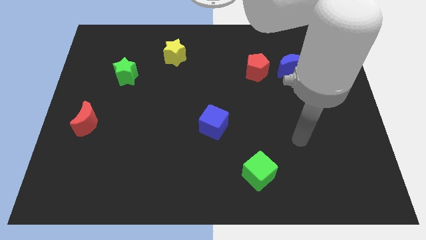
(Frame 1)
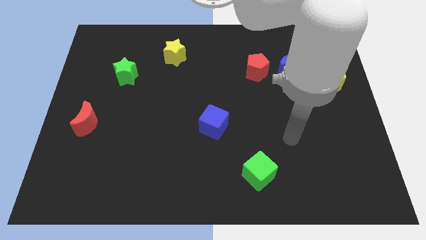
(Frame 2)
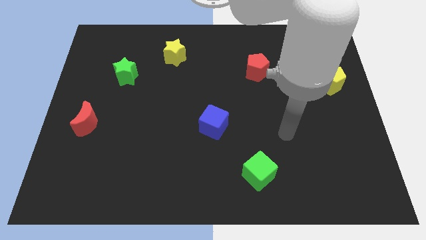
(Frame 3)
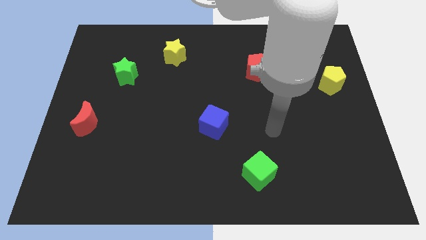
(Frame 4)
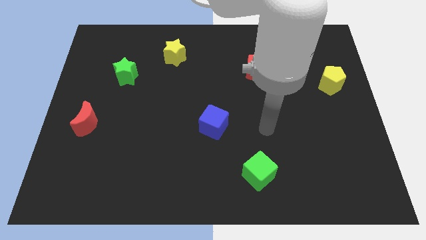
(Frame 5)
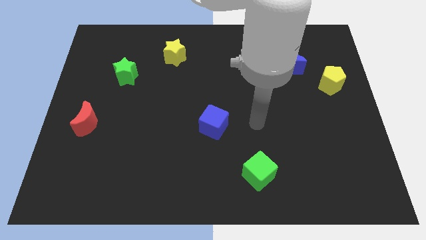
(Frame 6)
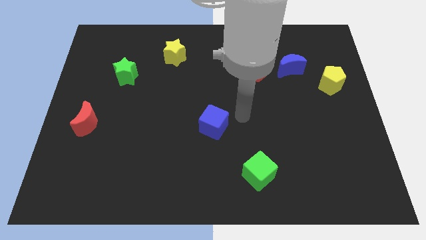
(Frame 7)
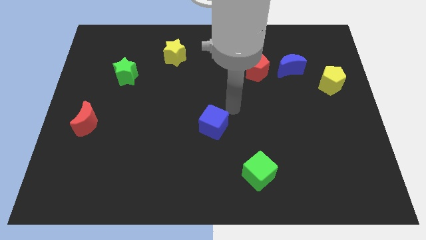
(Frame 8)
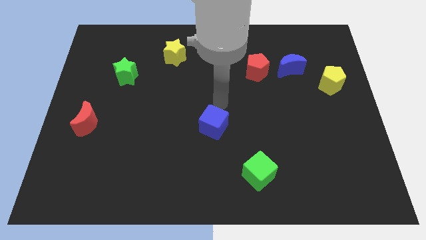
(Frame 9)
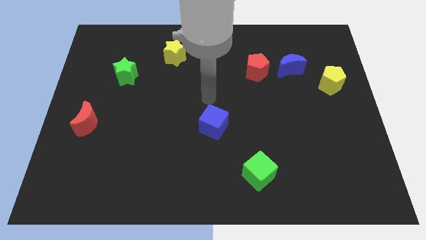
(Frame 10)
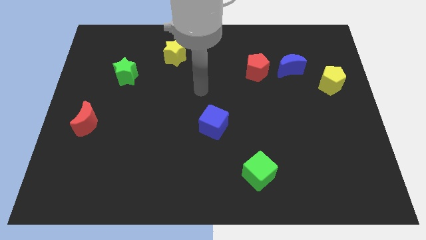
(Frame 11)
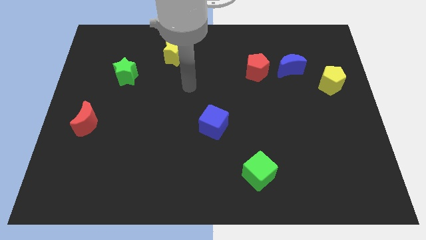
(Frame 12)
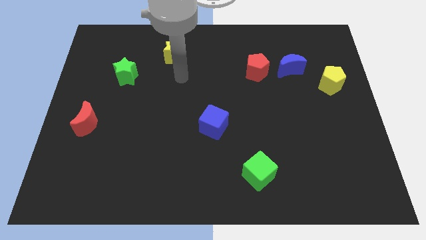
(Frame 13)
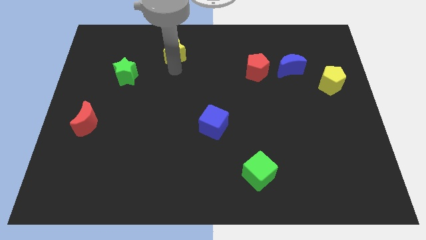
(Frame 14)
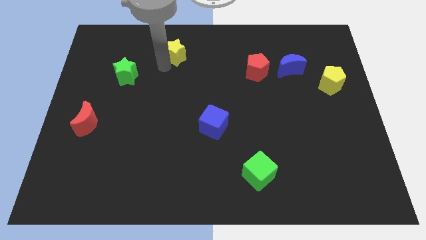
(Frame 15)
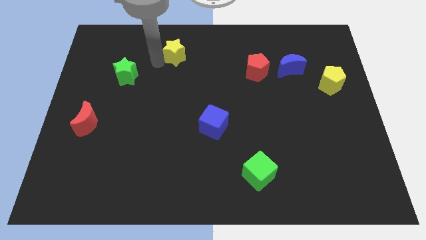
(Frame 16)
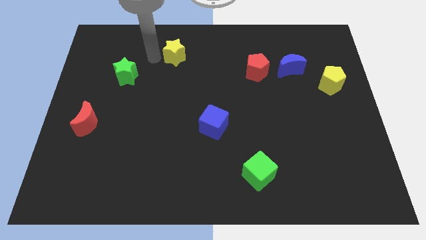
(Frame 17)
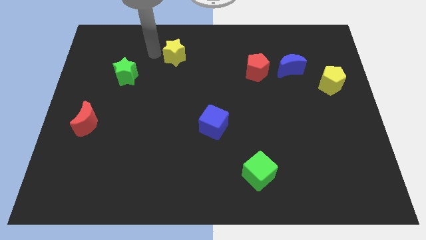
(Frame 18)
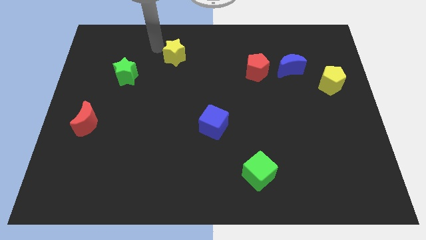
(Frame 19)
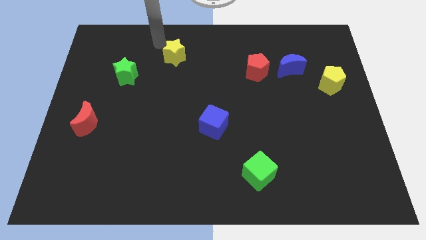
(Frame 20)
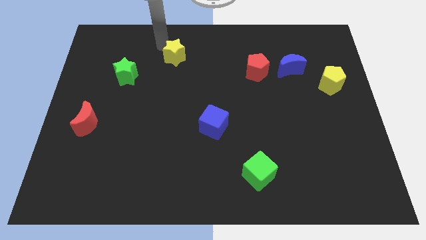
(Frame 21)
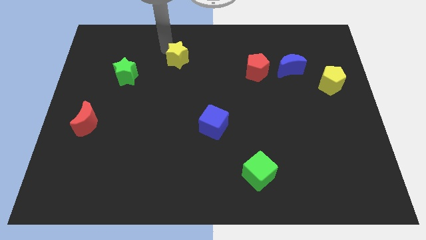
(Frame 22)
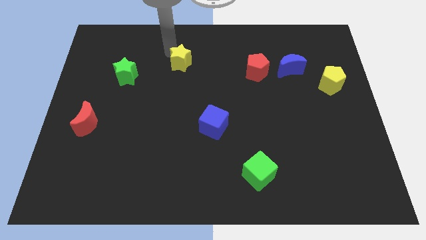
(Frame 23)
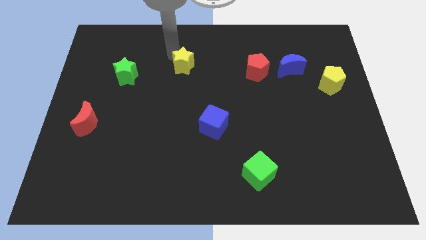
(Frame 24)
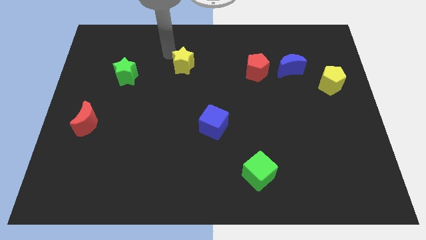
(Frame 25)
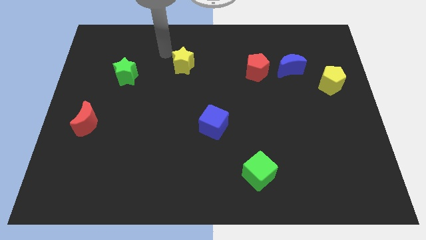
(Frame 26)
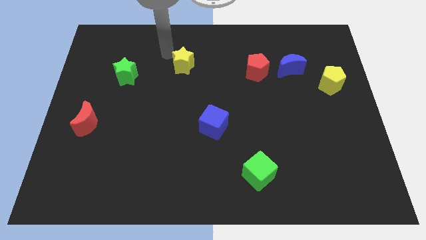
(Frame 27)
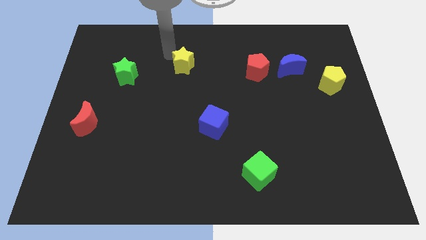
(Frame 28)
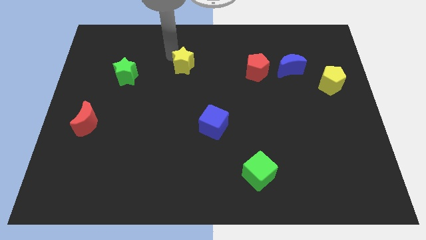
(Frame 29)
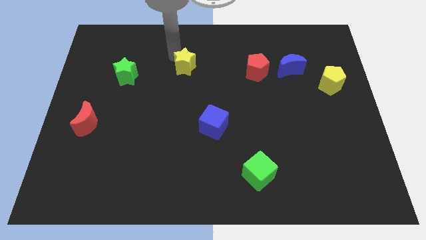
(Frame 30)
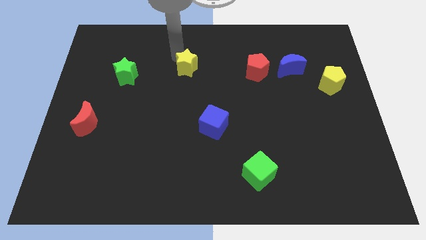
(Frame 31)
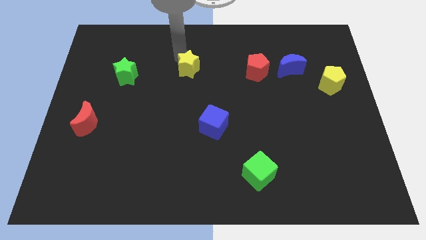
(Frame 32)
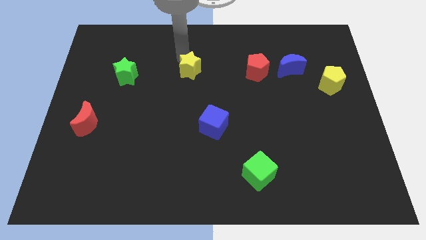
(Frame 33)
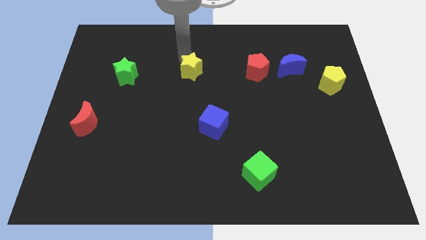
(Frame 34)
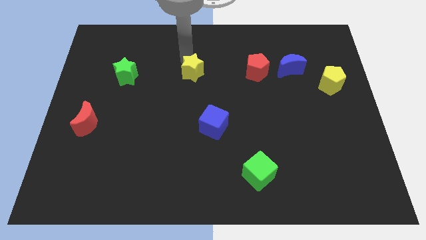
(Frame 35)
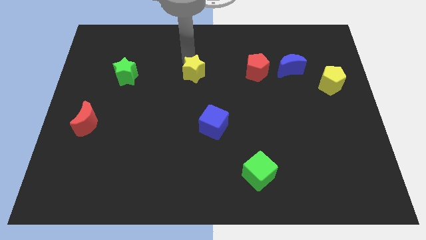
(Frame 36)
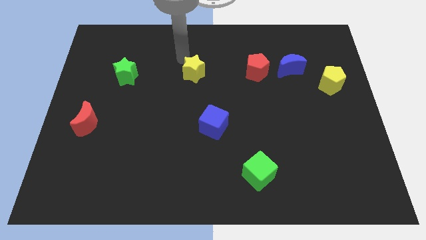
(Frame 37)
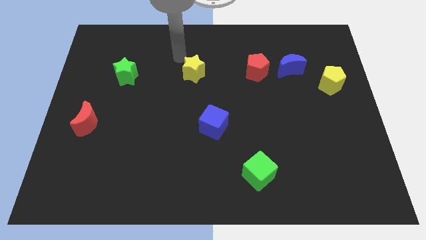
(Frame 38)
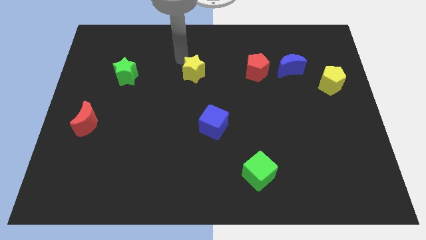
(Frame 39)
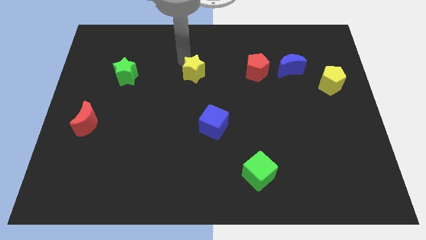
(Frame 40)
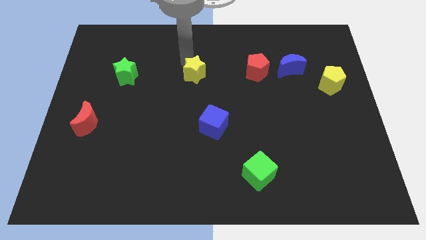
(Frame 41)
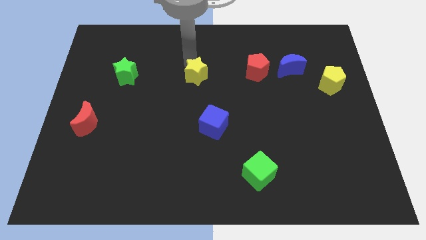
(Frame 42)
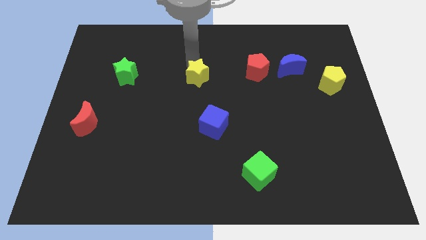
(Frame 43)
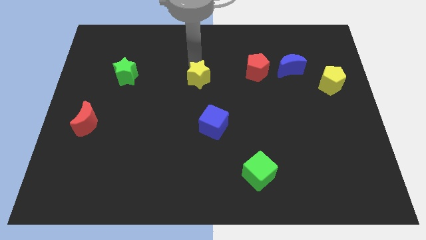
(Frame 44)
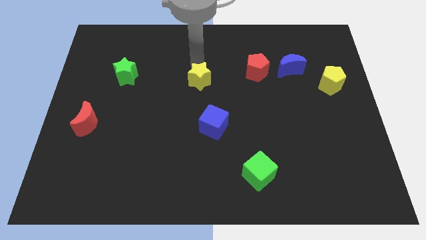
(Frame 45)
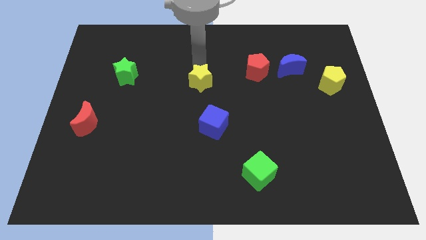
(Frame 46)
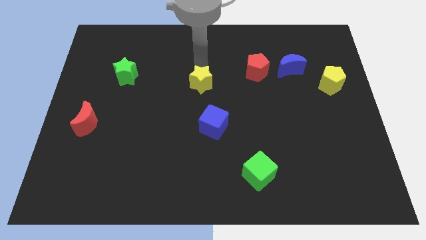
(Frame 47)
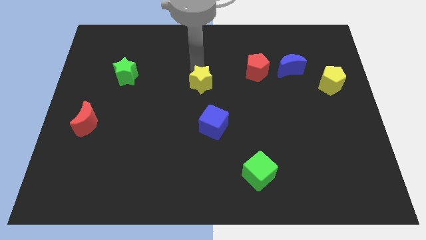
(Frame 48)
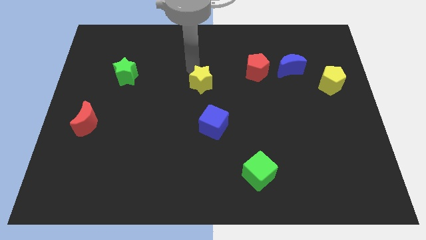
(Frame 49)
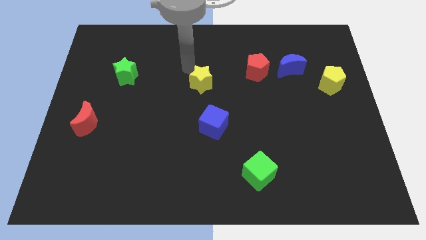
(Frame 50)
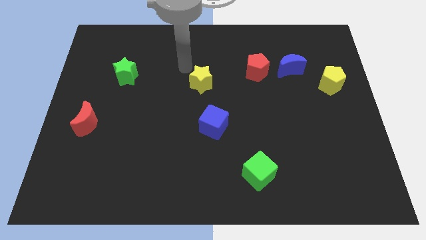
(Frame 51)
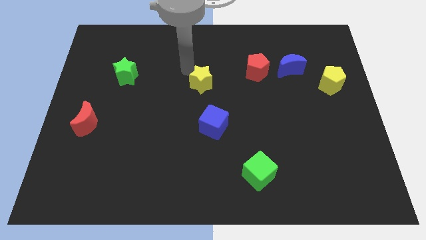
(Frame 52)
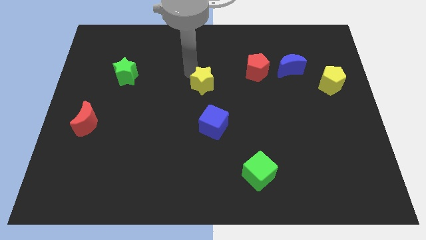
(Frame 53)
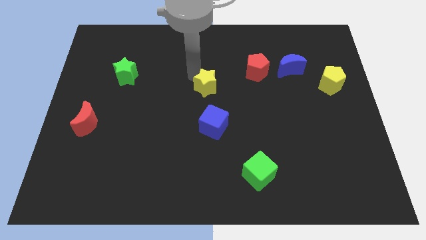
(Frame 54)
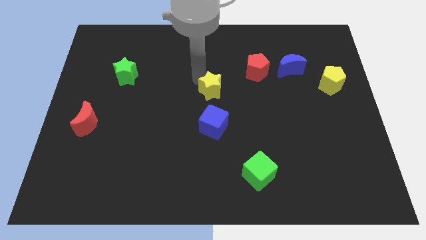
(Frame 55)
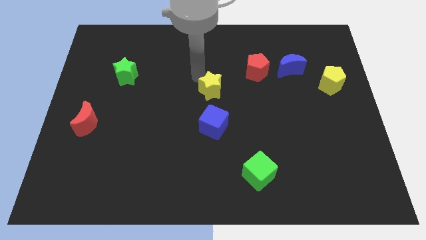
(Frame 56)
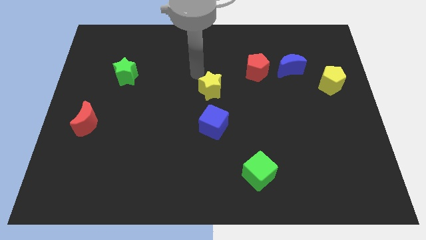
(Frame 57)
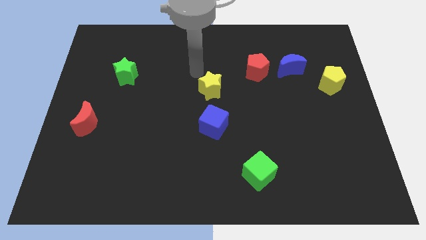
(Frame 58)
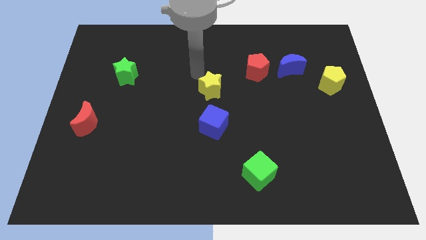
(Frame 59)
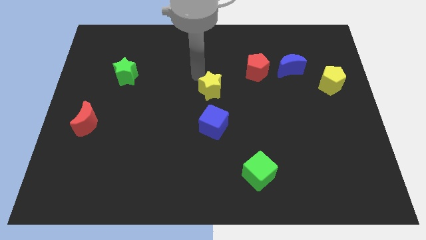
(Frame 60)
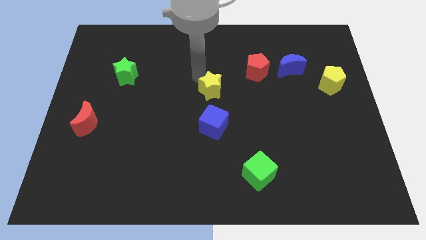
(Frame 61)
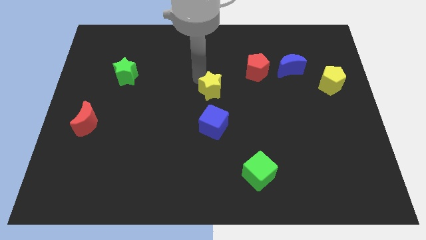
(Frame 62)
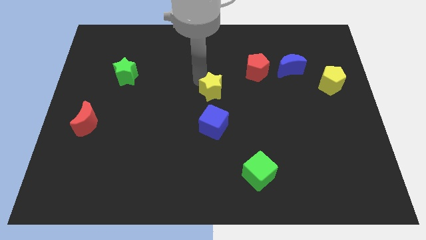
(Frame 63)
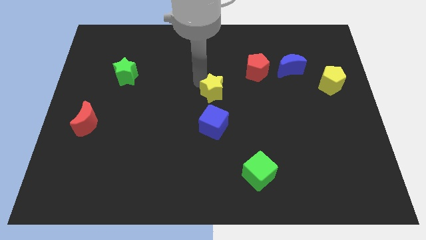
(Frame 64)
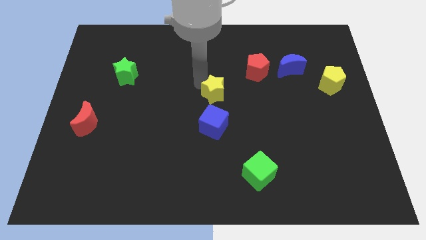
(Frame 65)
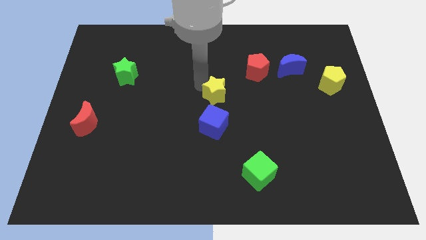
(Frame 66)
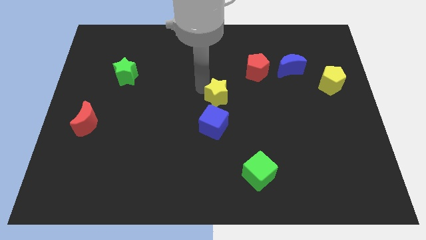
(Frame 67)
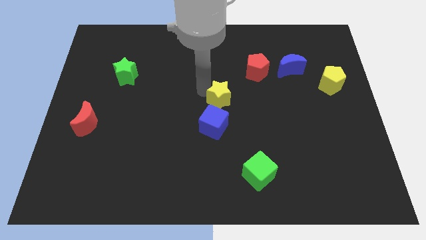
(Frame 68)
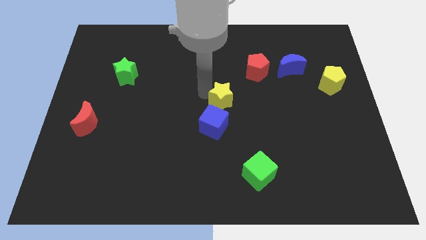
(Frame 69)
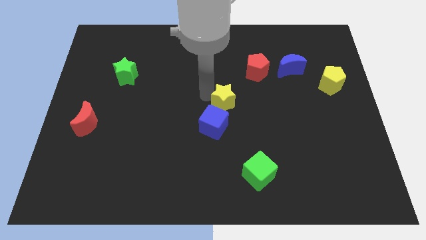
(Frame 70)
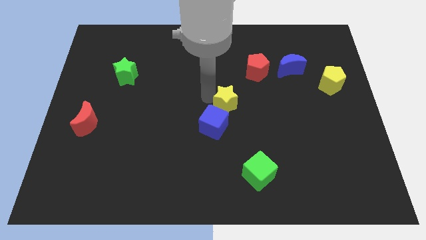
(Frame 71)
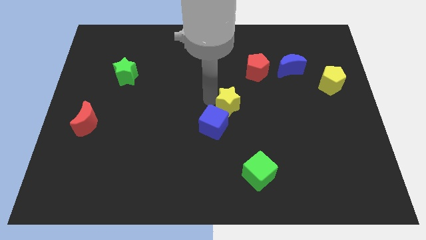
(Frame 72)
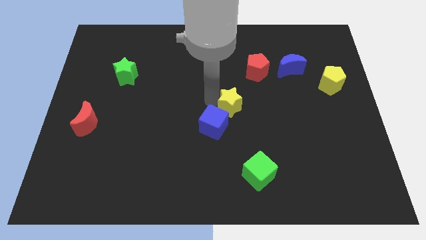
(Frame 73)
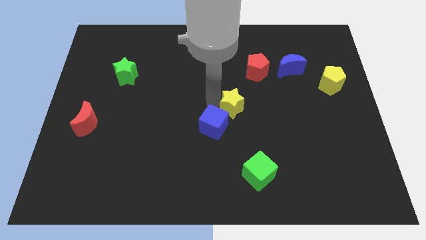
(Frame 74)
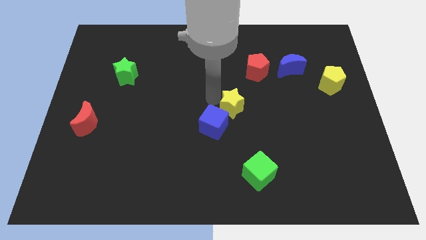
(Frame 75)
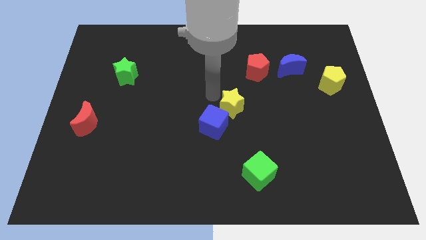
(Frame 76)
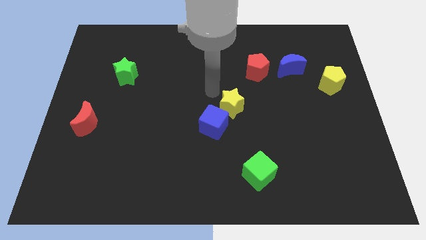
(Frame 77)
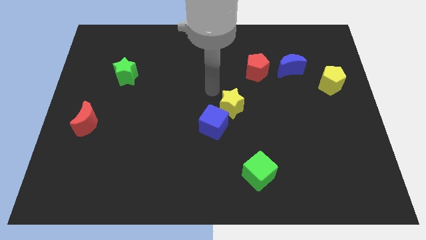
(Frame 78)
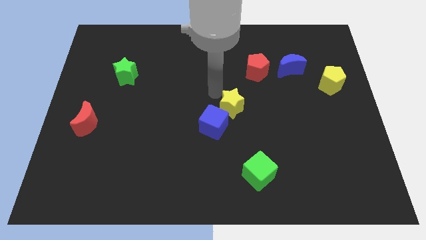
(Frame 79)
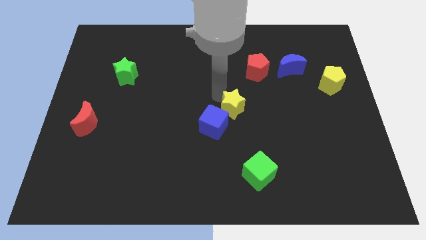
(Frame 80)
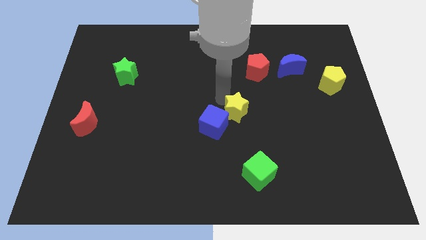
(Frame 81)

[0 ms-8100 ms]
put the yellow star to the right side of the blue cube
